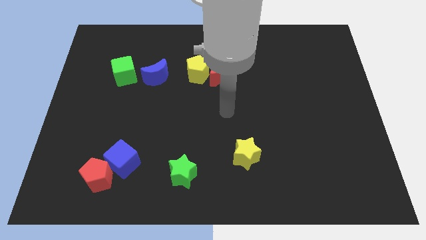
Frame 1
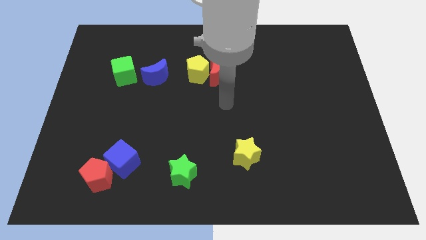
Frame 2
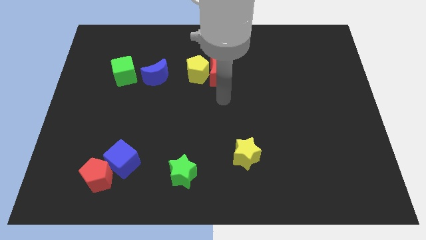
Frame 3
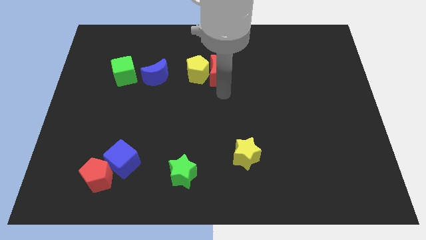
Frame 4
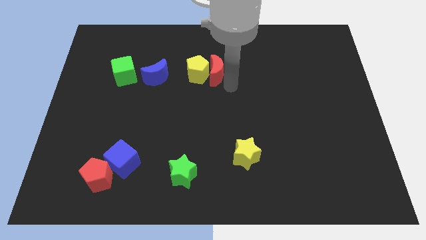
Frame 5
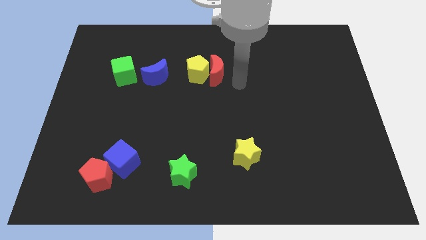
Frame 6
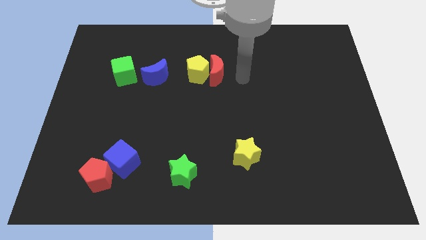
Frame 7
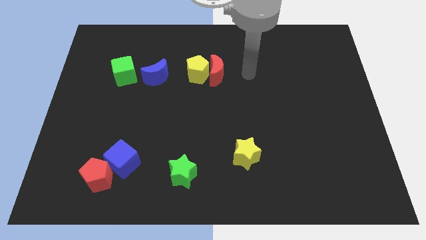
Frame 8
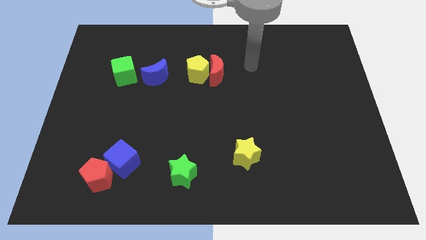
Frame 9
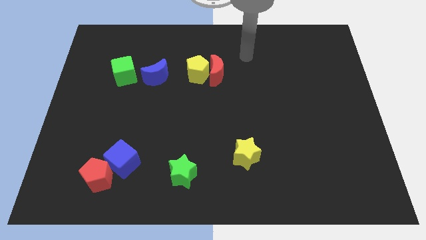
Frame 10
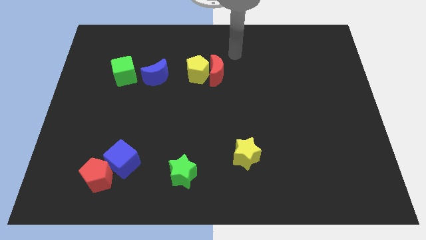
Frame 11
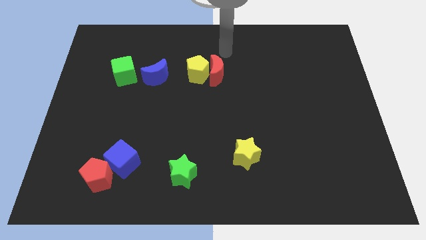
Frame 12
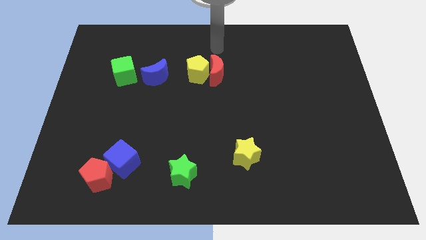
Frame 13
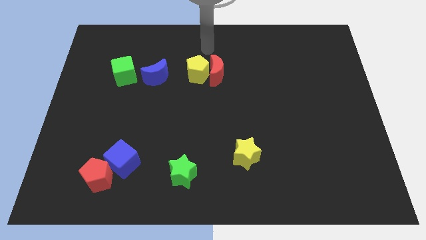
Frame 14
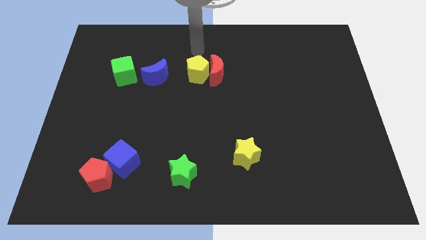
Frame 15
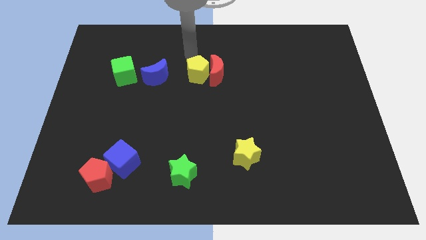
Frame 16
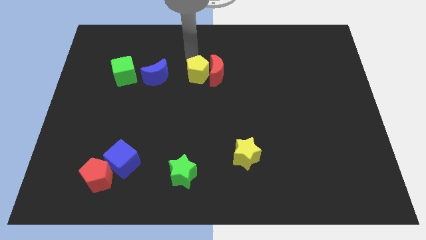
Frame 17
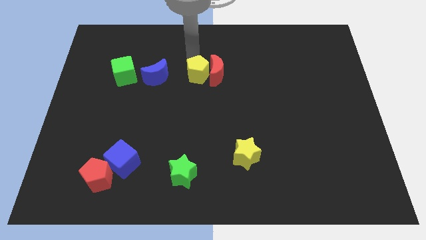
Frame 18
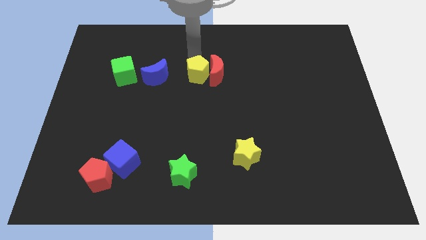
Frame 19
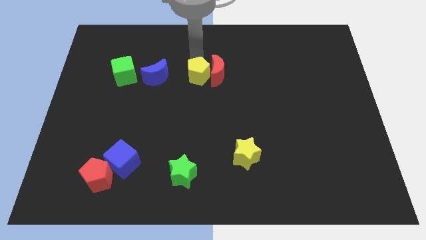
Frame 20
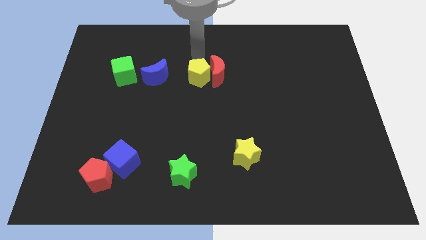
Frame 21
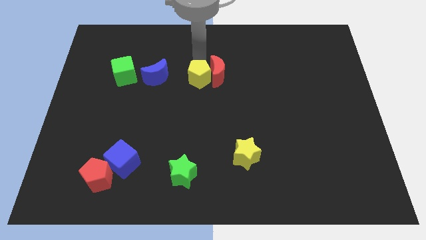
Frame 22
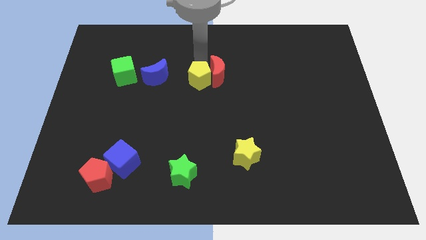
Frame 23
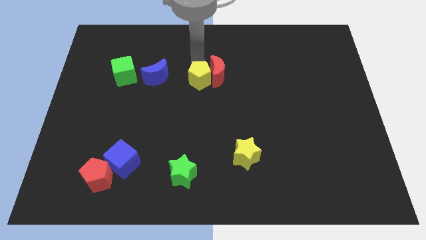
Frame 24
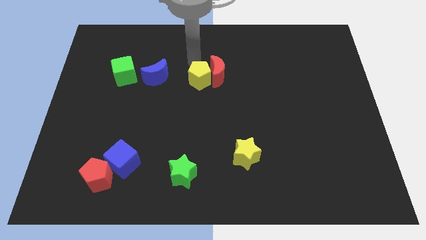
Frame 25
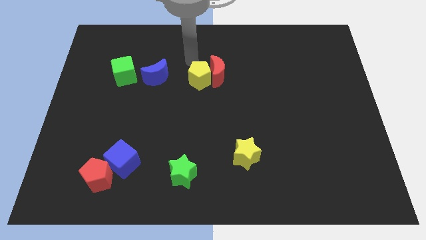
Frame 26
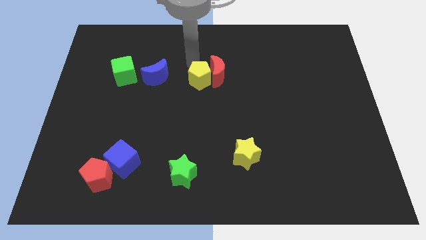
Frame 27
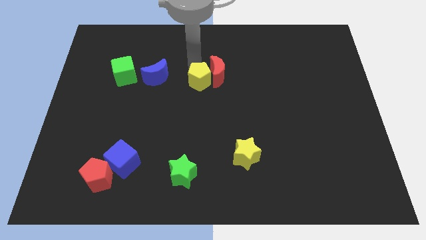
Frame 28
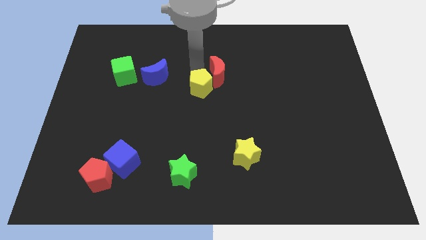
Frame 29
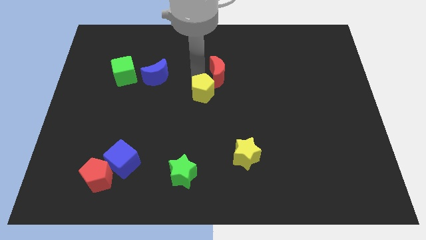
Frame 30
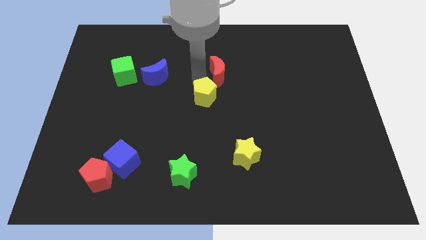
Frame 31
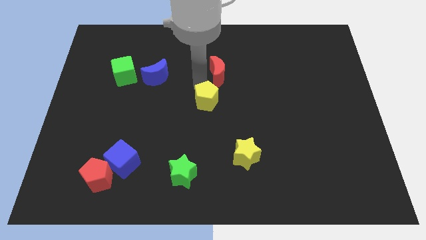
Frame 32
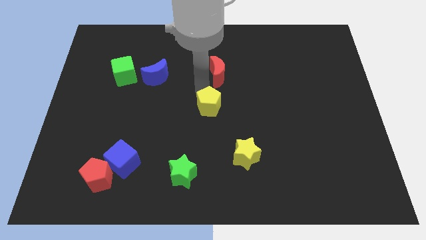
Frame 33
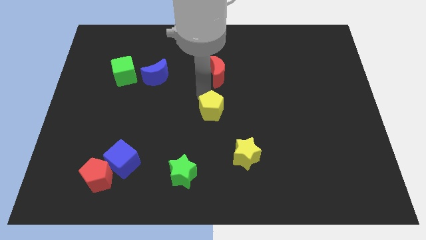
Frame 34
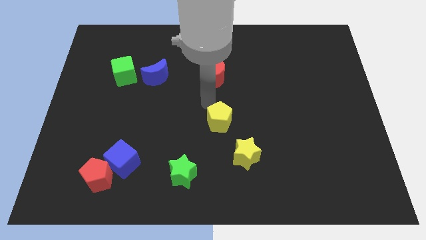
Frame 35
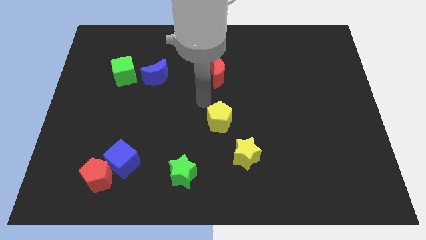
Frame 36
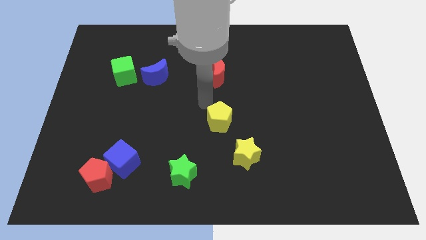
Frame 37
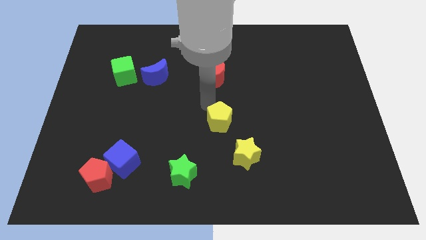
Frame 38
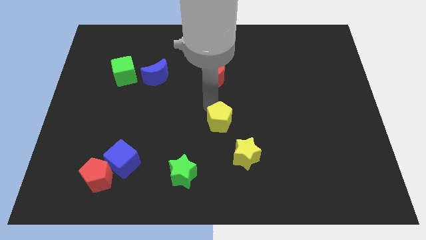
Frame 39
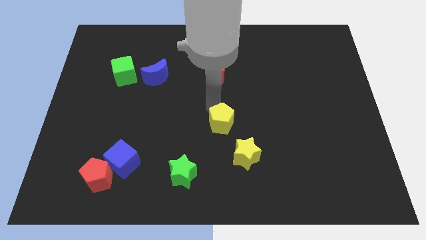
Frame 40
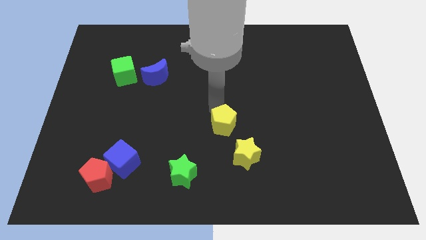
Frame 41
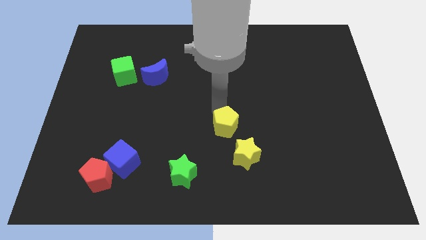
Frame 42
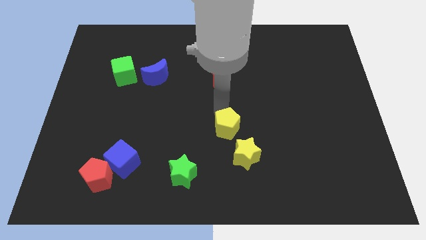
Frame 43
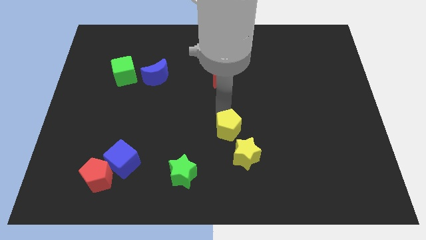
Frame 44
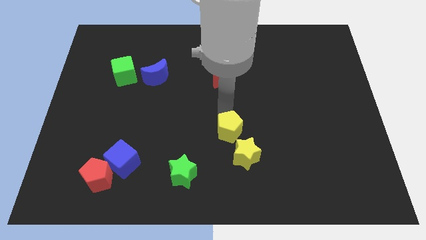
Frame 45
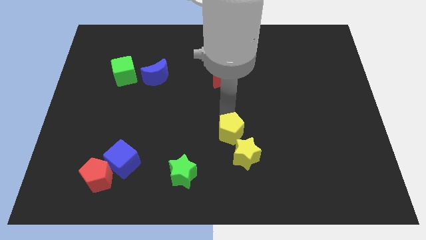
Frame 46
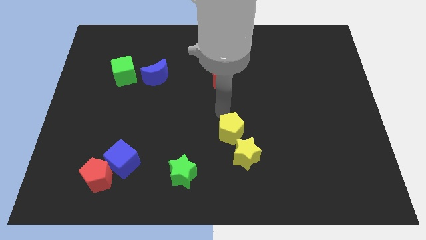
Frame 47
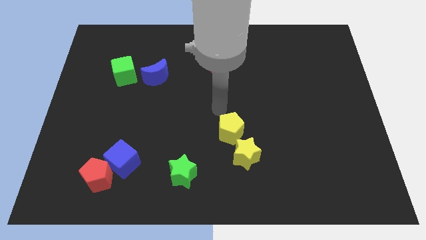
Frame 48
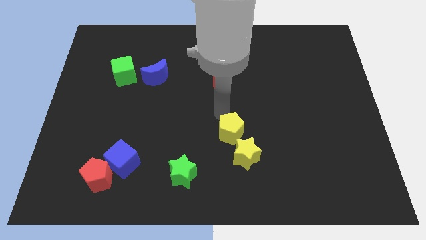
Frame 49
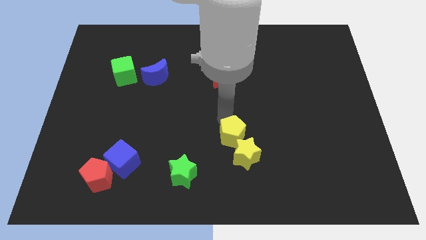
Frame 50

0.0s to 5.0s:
move the yellow pentagon towards the yellow star

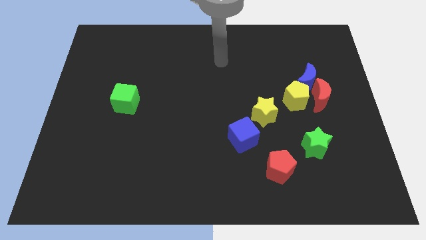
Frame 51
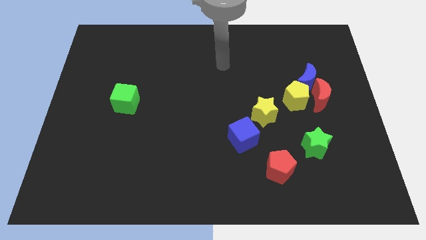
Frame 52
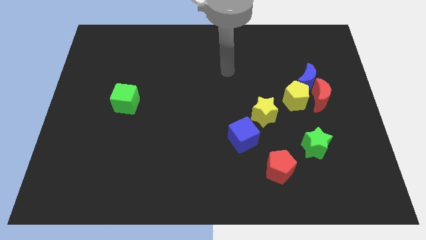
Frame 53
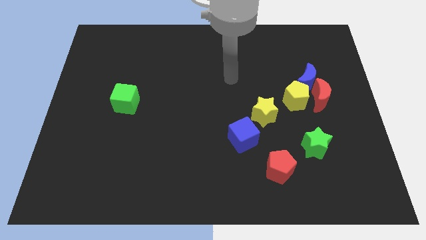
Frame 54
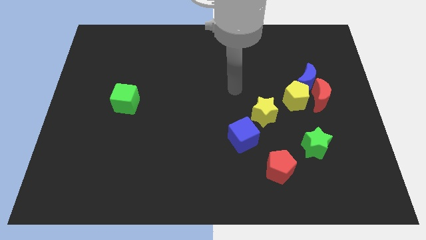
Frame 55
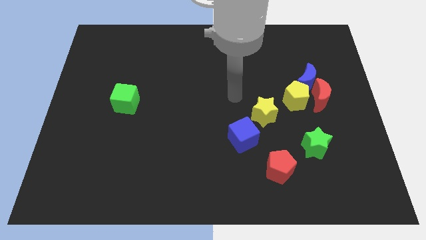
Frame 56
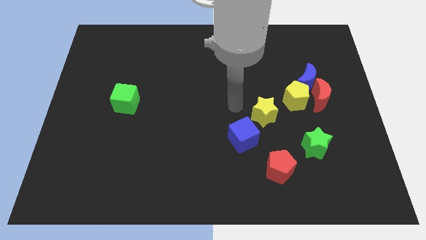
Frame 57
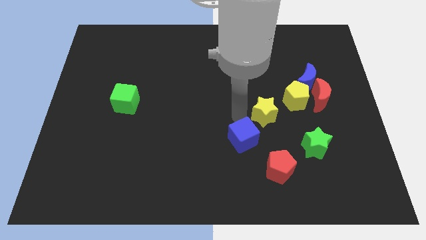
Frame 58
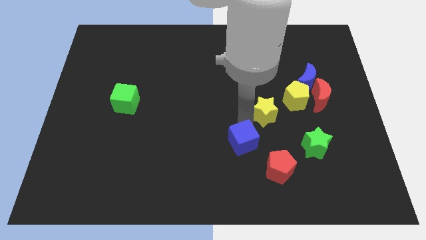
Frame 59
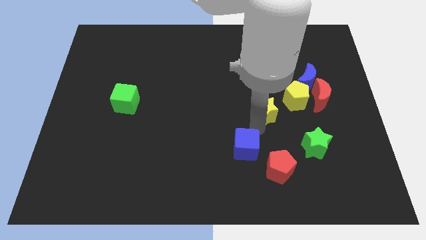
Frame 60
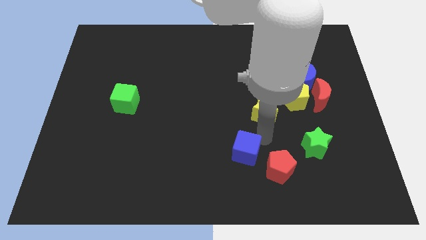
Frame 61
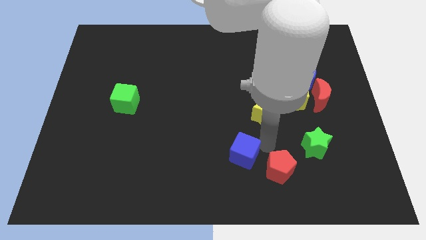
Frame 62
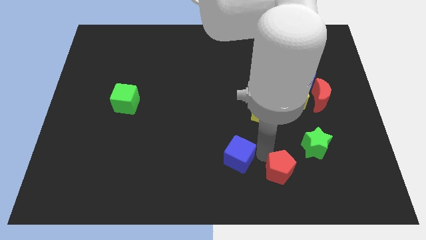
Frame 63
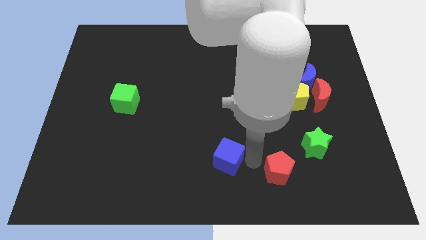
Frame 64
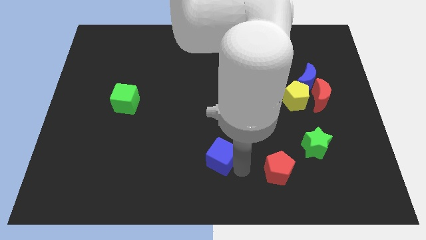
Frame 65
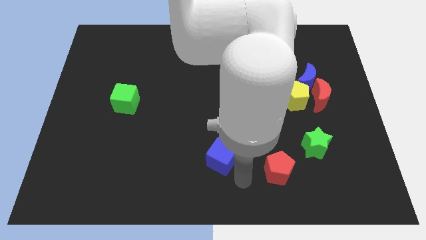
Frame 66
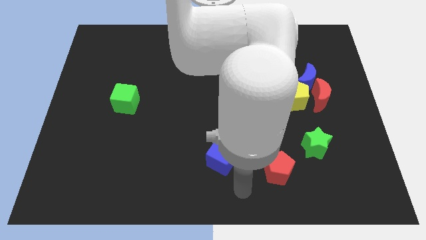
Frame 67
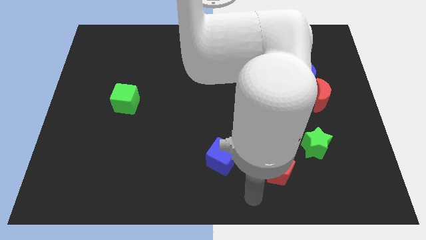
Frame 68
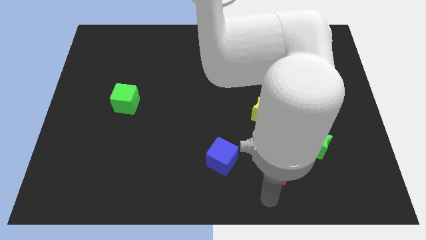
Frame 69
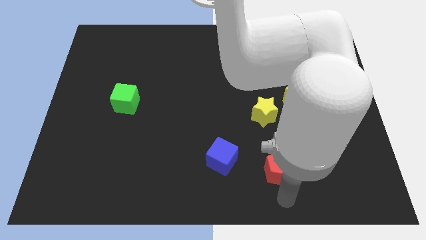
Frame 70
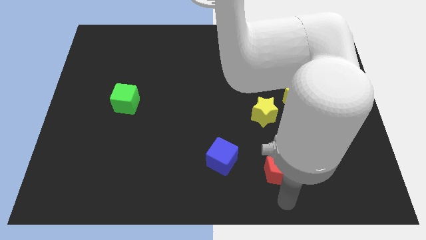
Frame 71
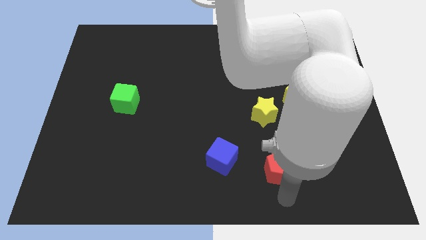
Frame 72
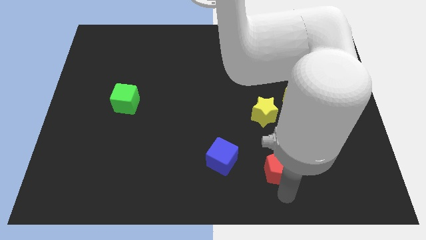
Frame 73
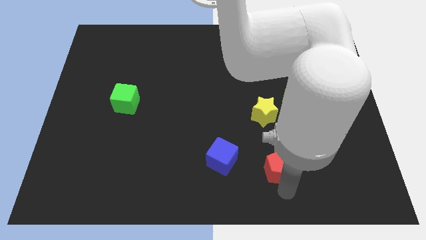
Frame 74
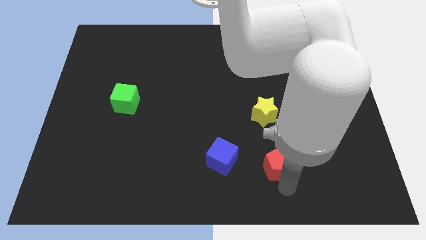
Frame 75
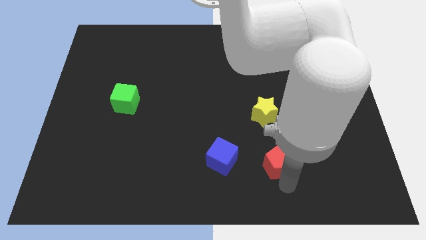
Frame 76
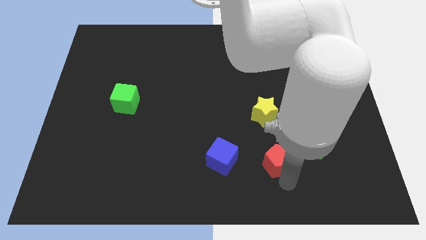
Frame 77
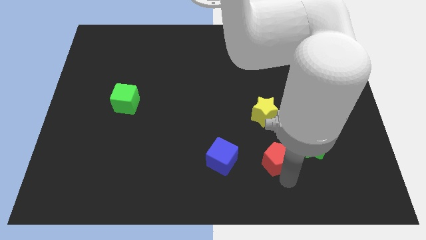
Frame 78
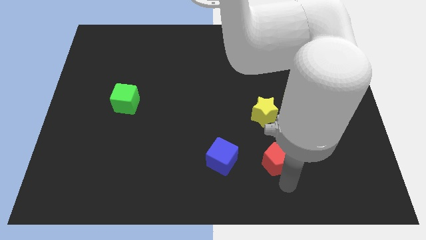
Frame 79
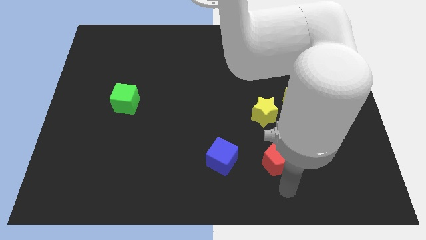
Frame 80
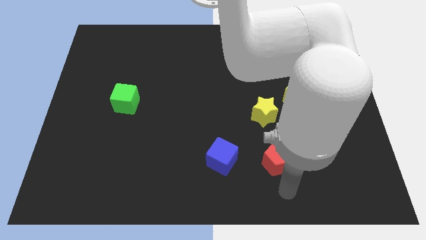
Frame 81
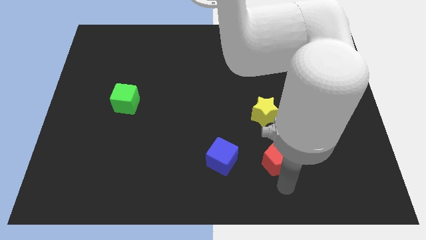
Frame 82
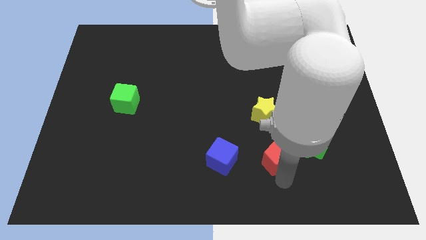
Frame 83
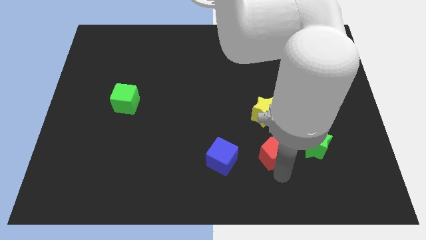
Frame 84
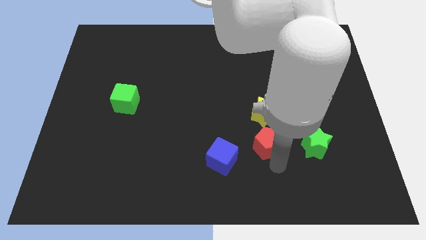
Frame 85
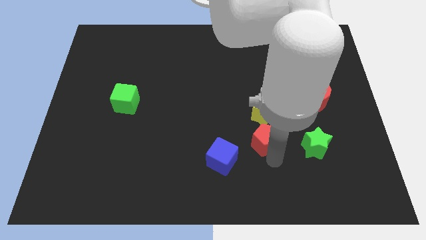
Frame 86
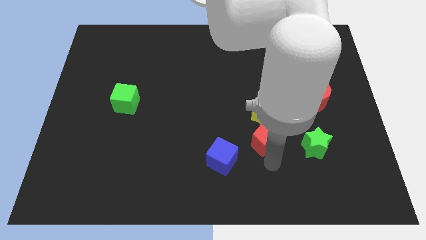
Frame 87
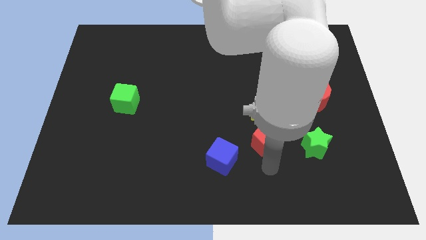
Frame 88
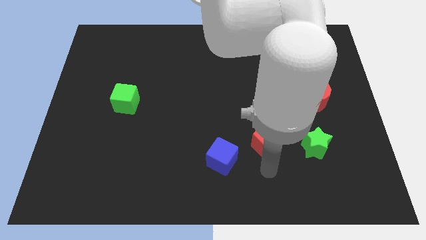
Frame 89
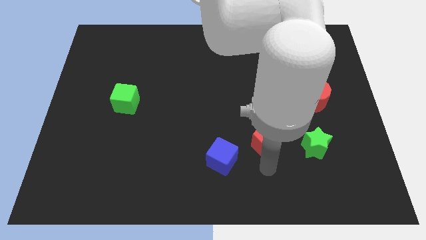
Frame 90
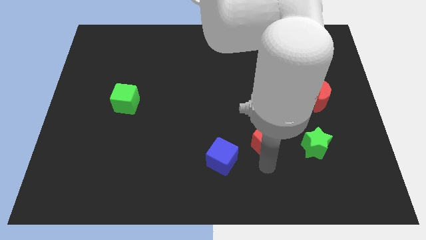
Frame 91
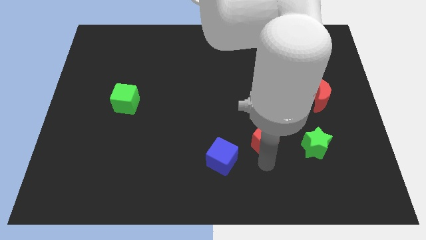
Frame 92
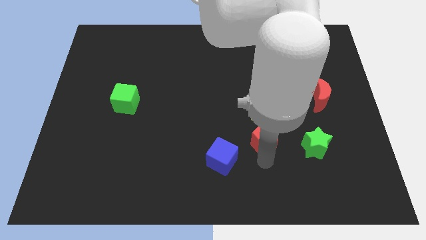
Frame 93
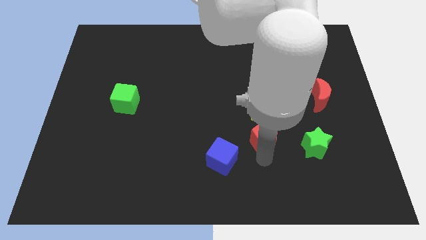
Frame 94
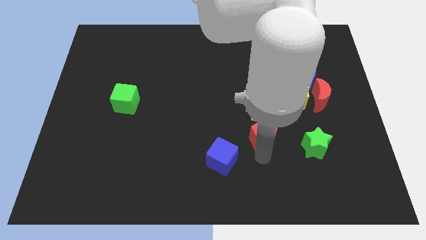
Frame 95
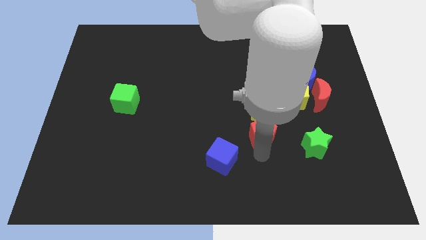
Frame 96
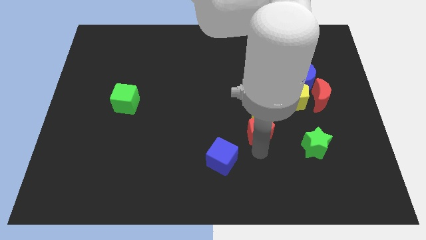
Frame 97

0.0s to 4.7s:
push the red pentagon towards the yellow star
